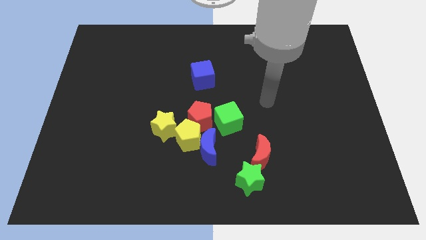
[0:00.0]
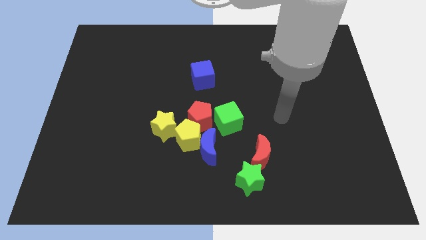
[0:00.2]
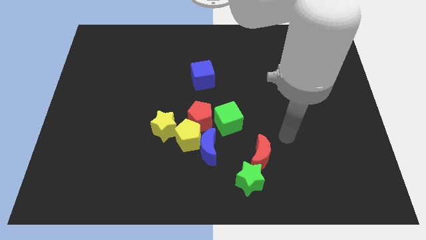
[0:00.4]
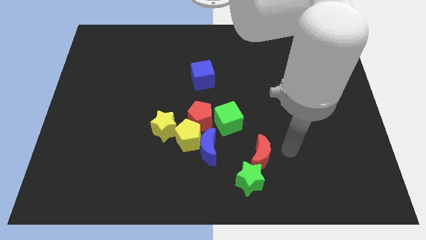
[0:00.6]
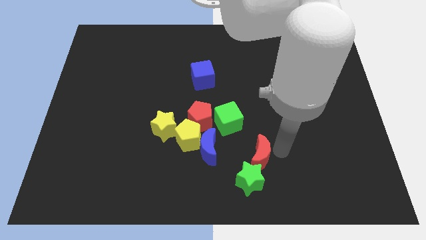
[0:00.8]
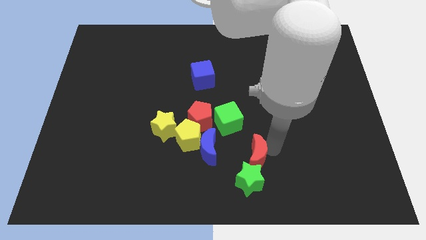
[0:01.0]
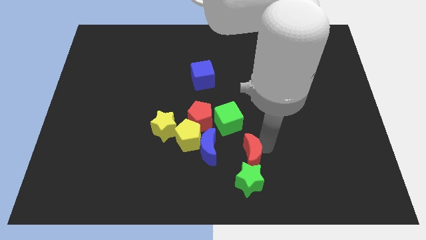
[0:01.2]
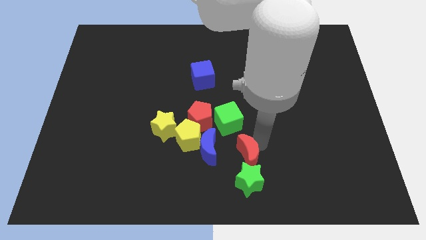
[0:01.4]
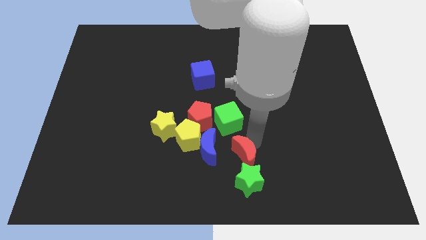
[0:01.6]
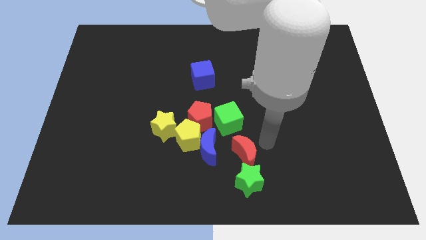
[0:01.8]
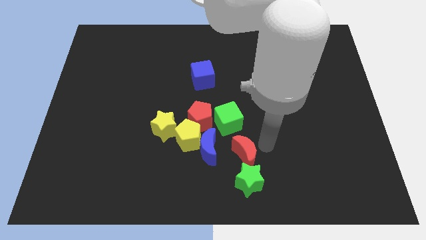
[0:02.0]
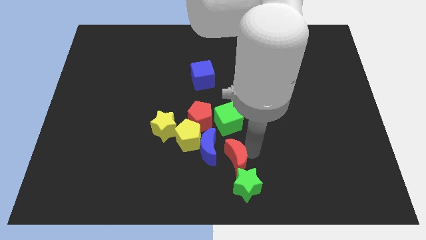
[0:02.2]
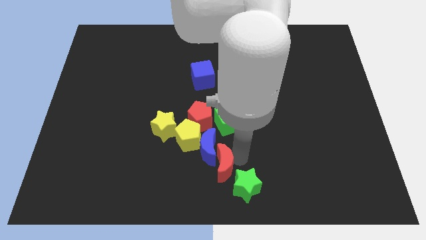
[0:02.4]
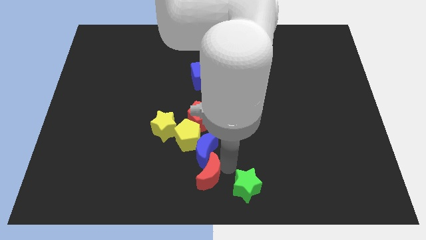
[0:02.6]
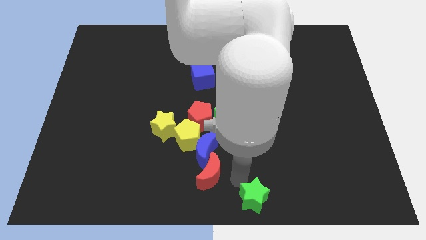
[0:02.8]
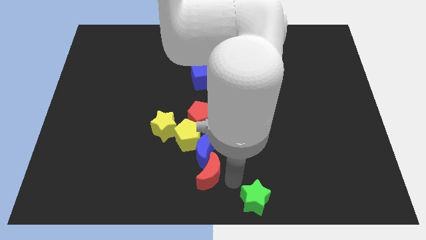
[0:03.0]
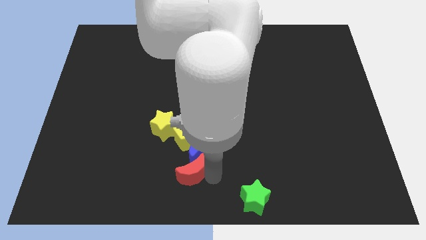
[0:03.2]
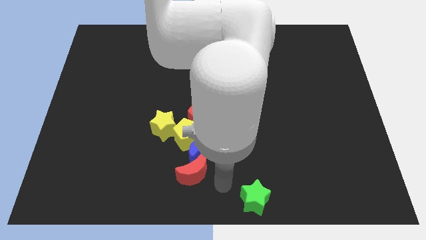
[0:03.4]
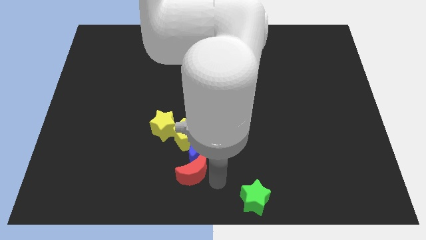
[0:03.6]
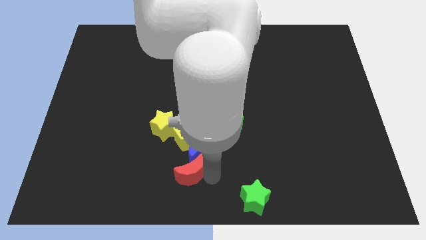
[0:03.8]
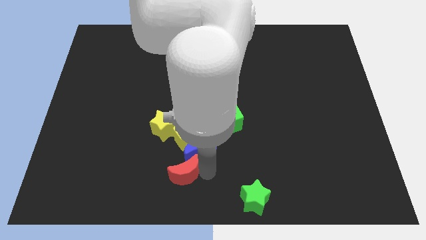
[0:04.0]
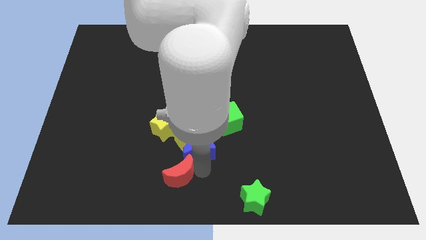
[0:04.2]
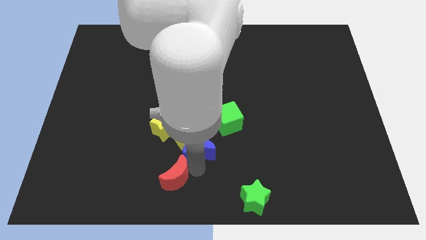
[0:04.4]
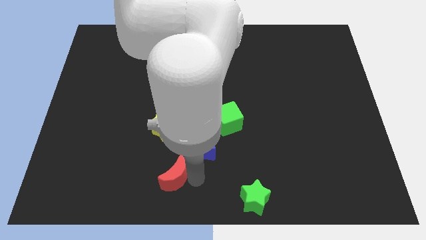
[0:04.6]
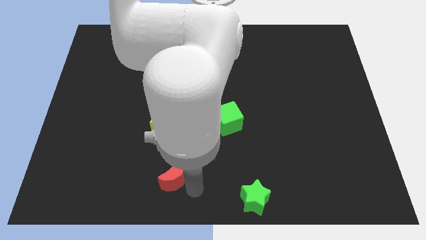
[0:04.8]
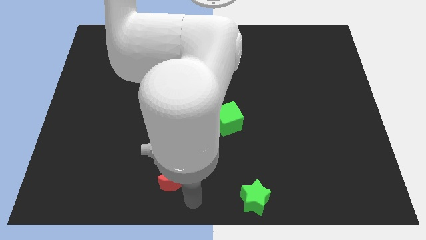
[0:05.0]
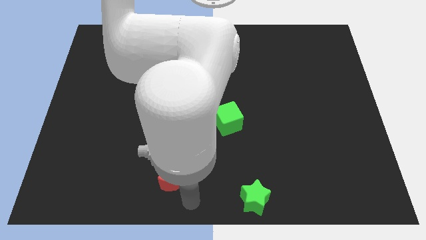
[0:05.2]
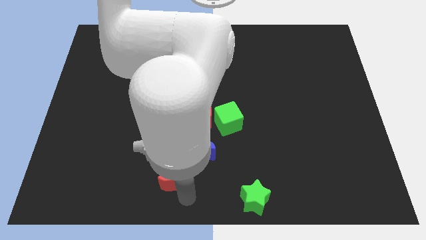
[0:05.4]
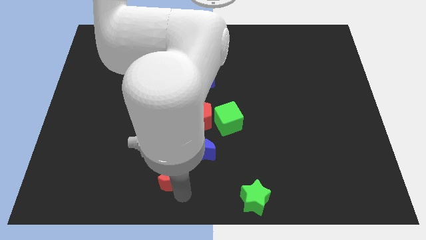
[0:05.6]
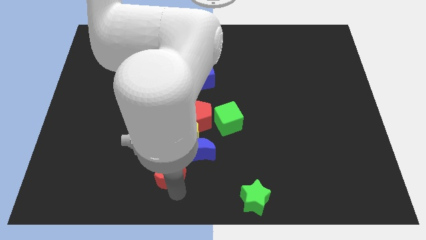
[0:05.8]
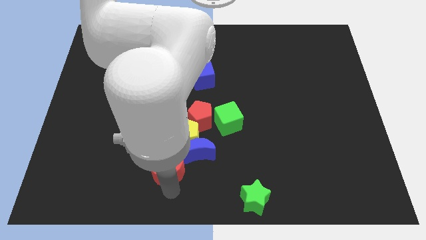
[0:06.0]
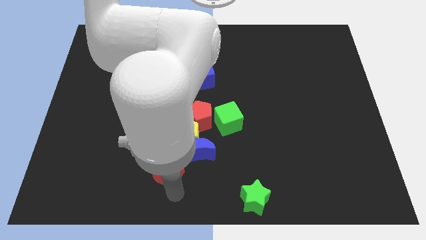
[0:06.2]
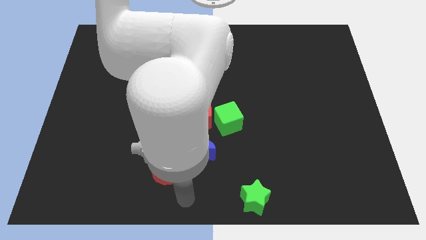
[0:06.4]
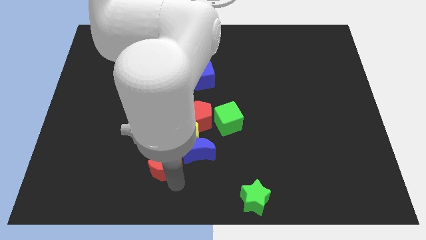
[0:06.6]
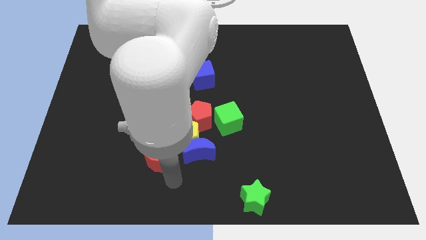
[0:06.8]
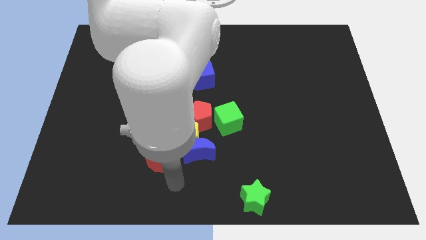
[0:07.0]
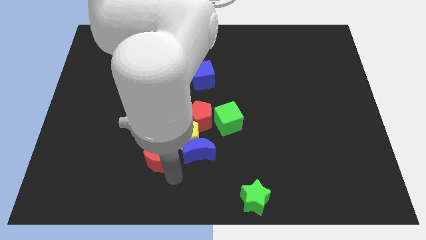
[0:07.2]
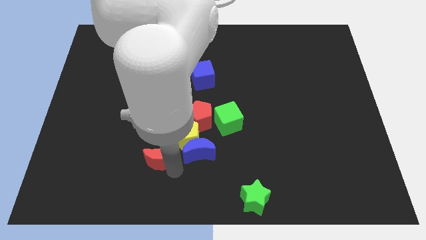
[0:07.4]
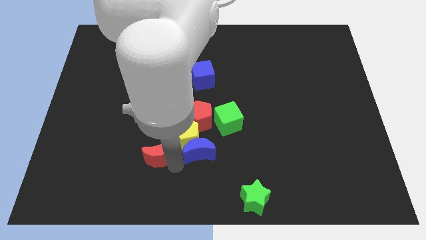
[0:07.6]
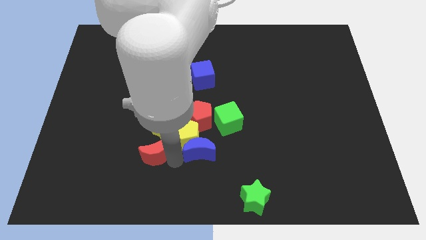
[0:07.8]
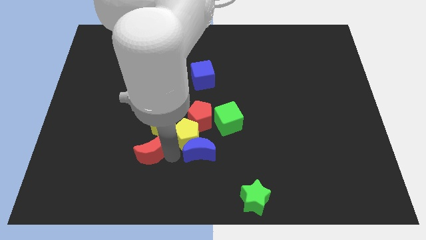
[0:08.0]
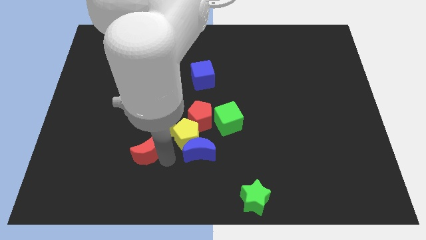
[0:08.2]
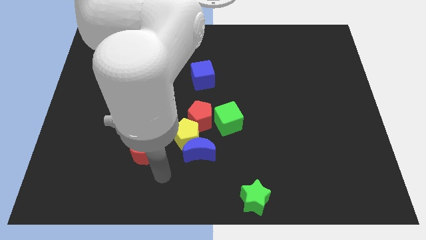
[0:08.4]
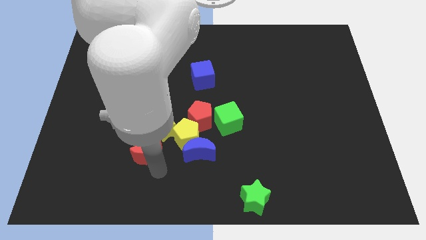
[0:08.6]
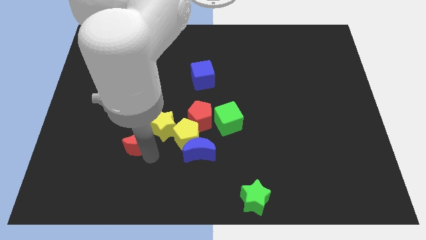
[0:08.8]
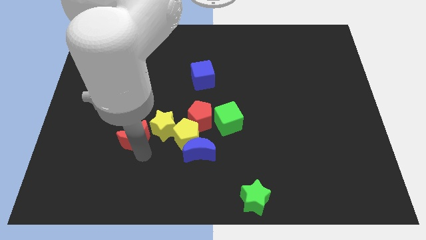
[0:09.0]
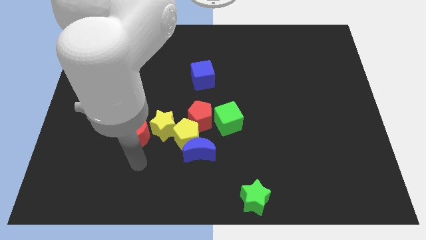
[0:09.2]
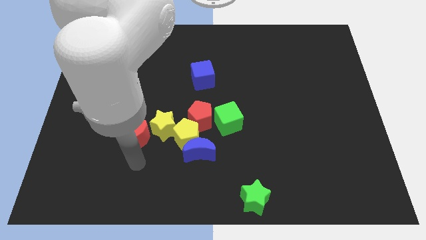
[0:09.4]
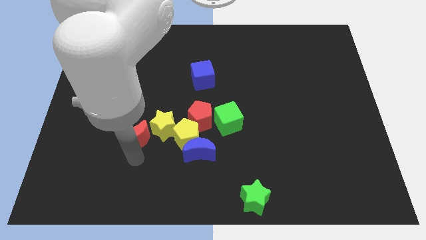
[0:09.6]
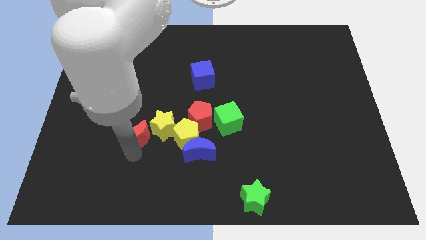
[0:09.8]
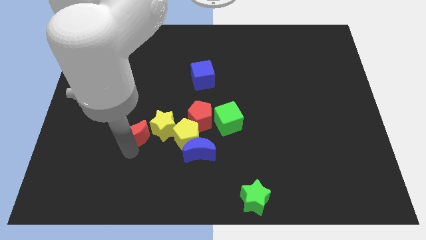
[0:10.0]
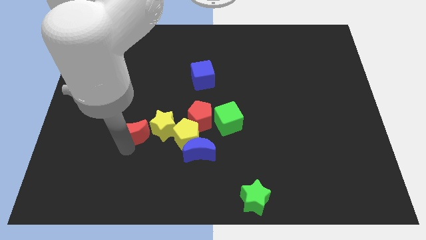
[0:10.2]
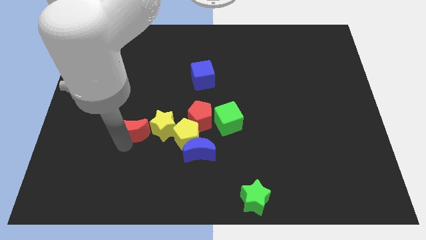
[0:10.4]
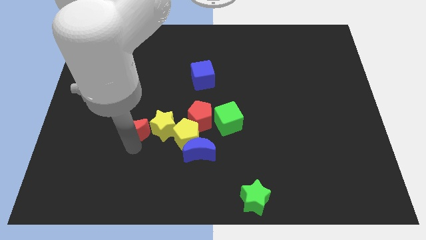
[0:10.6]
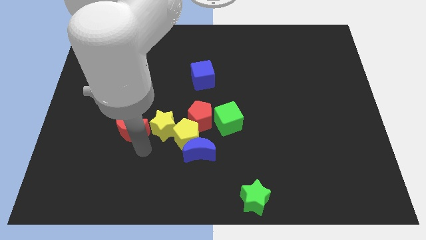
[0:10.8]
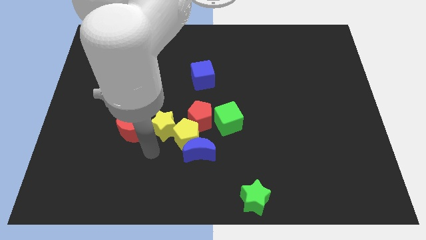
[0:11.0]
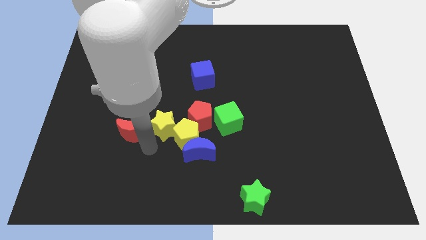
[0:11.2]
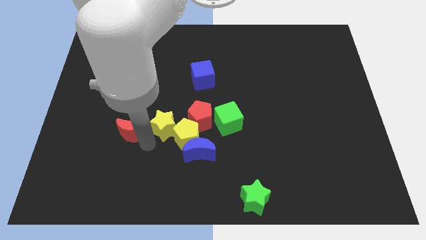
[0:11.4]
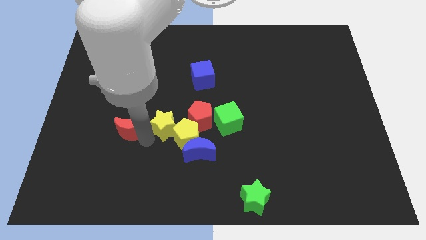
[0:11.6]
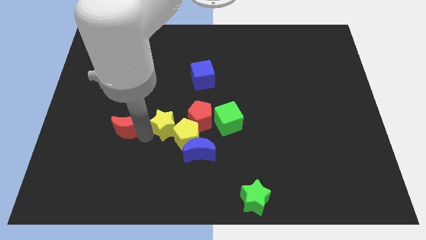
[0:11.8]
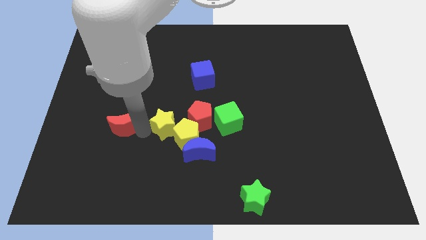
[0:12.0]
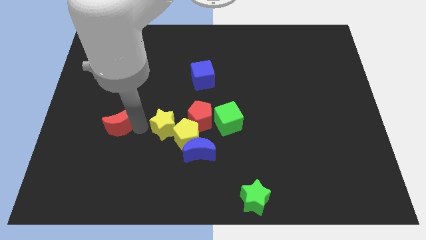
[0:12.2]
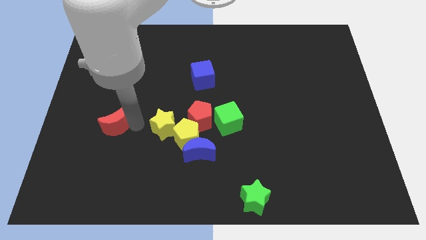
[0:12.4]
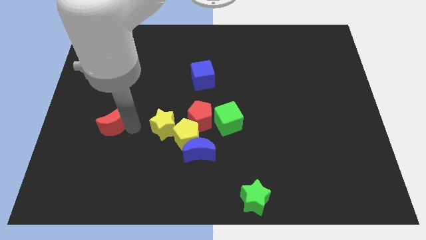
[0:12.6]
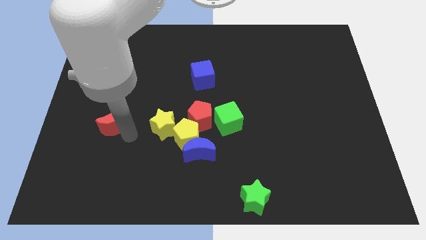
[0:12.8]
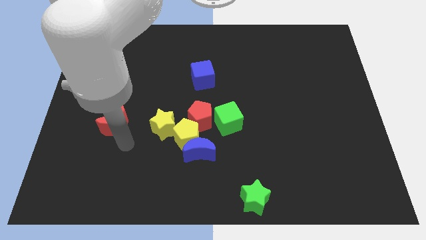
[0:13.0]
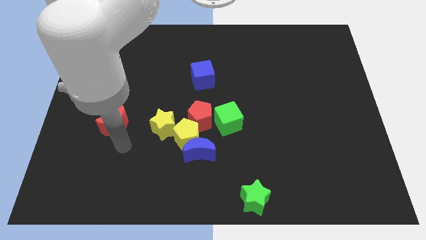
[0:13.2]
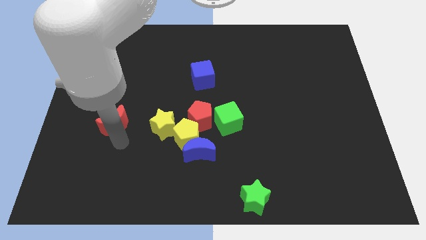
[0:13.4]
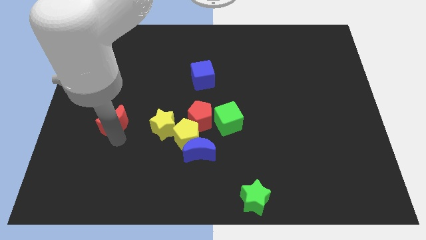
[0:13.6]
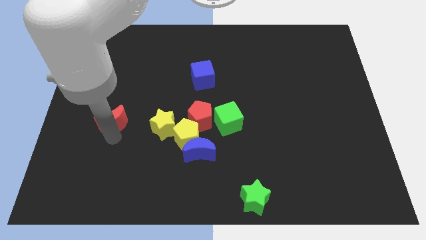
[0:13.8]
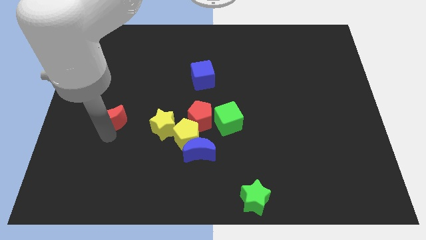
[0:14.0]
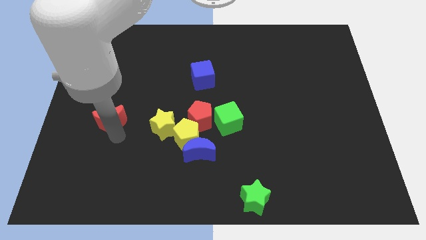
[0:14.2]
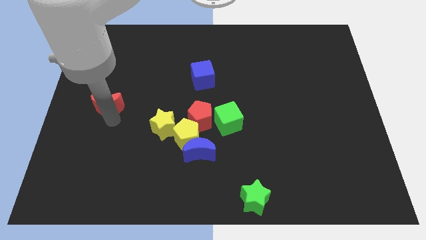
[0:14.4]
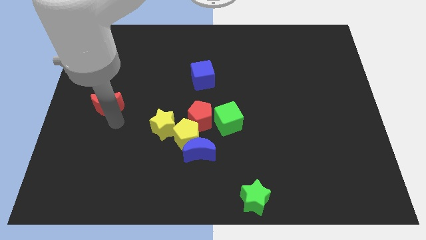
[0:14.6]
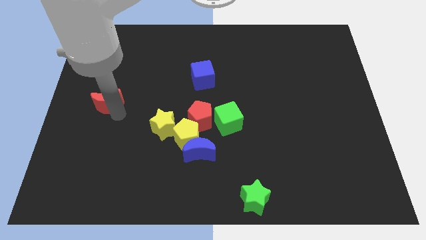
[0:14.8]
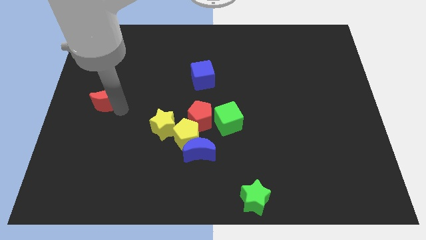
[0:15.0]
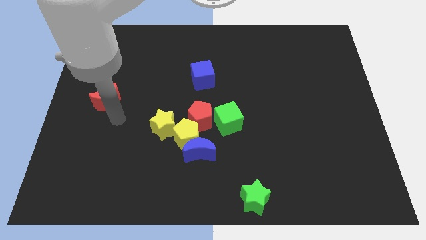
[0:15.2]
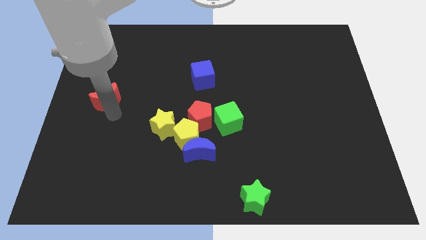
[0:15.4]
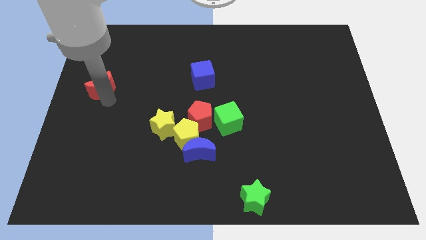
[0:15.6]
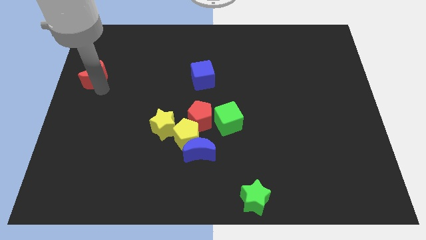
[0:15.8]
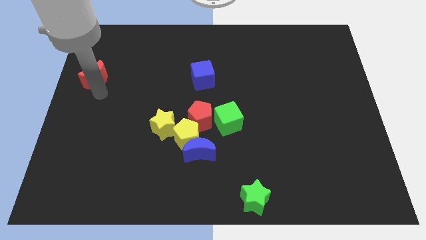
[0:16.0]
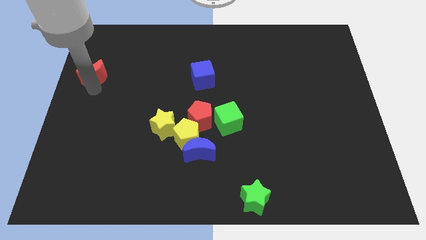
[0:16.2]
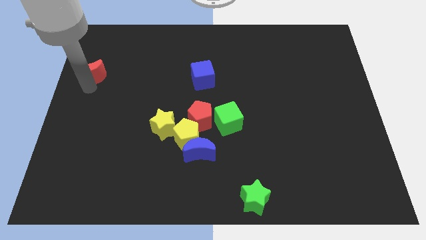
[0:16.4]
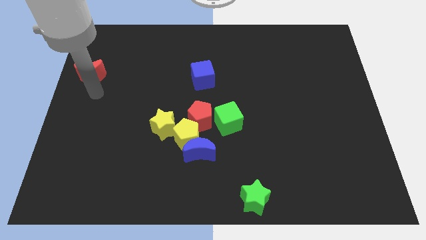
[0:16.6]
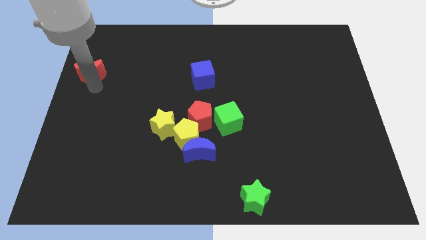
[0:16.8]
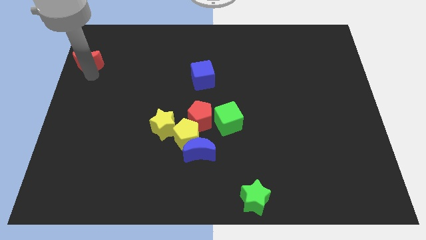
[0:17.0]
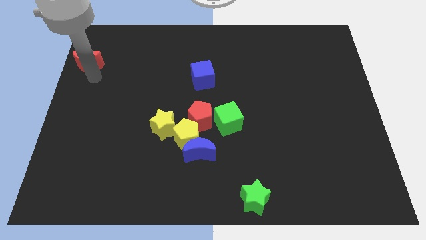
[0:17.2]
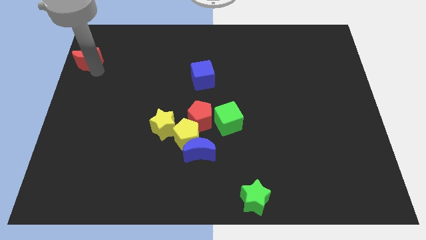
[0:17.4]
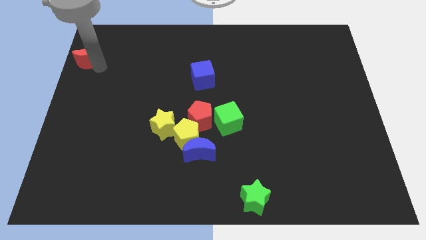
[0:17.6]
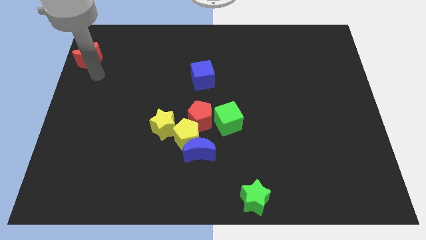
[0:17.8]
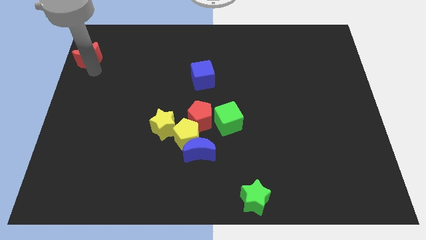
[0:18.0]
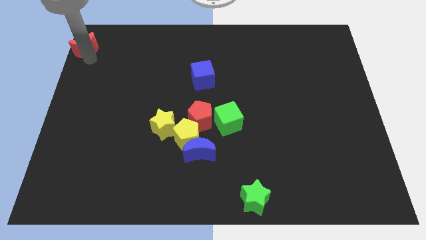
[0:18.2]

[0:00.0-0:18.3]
put the red moon to the top left of the board
